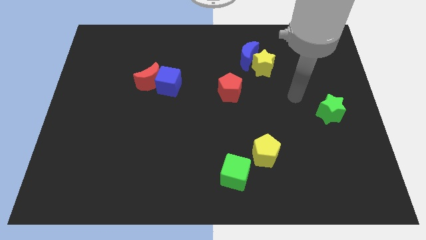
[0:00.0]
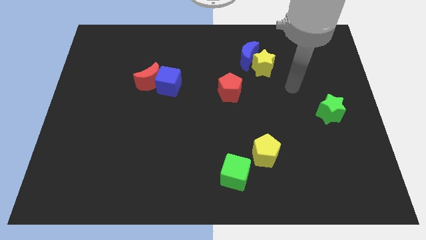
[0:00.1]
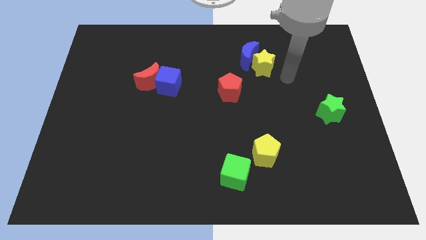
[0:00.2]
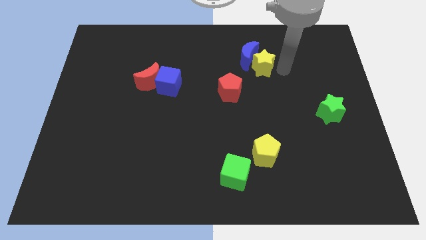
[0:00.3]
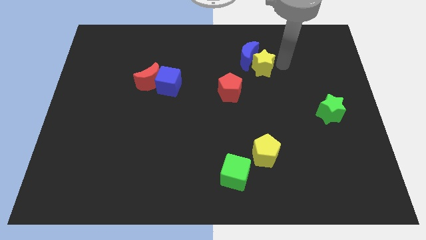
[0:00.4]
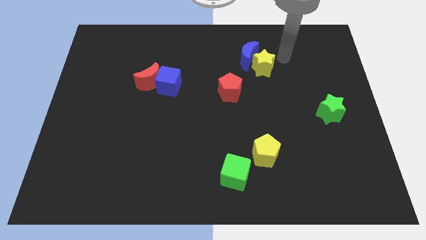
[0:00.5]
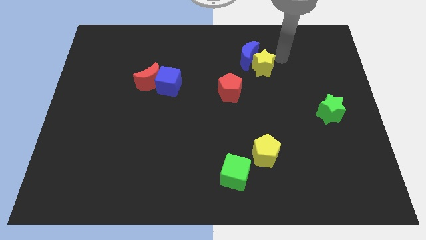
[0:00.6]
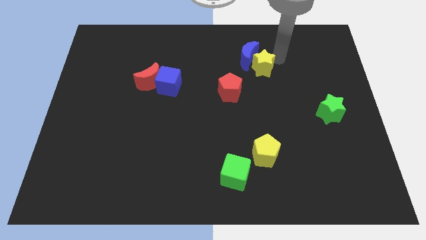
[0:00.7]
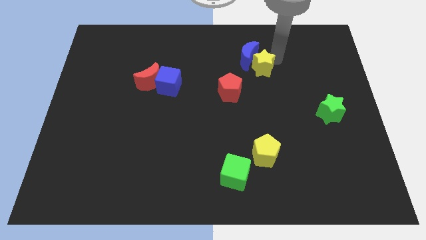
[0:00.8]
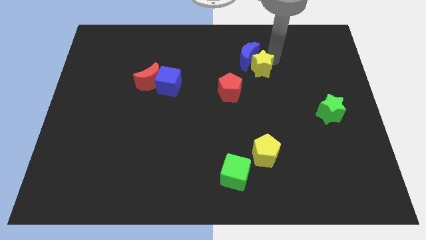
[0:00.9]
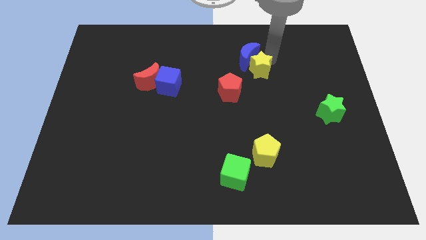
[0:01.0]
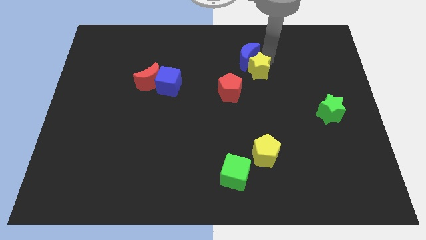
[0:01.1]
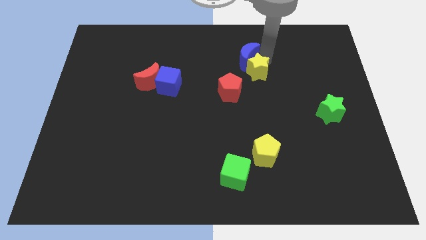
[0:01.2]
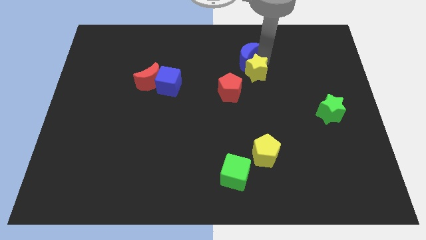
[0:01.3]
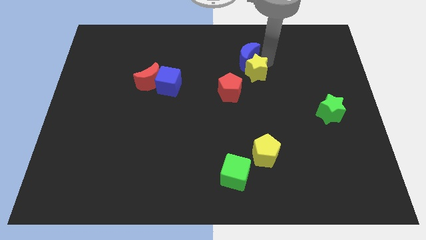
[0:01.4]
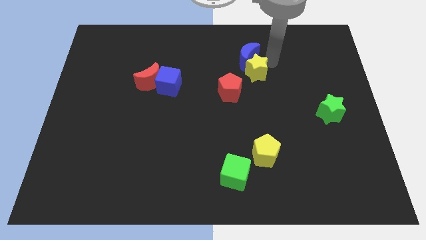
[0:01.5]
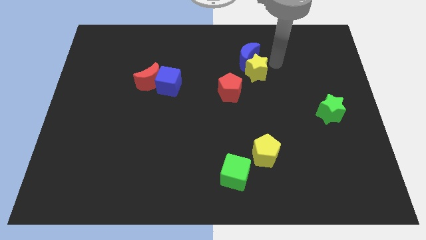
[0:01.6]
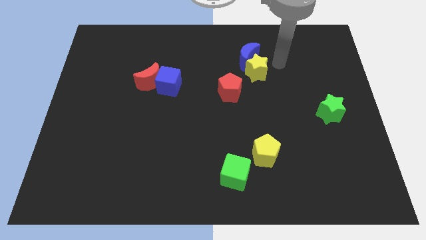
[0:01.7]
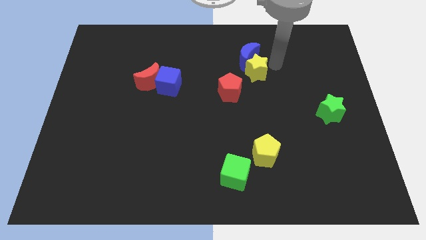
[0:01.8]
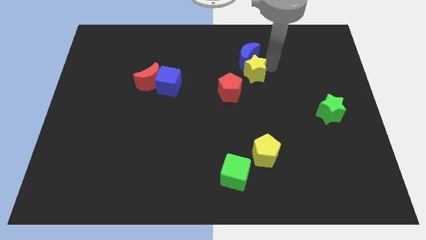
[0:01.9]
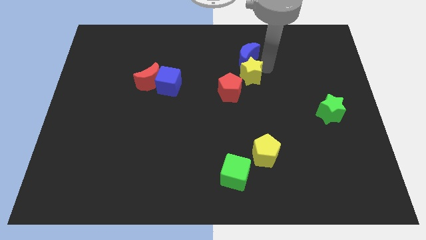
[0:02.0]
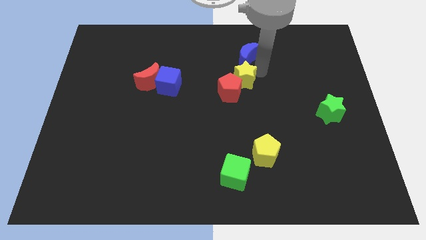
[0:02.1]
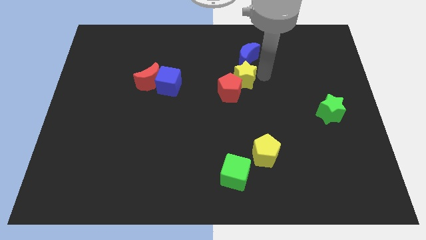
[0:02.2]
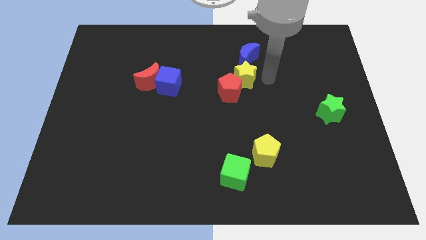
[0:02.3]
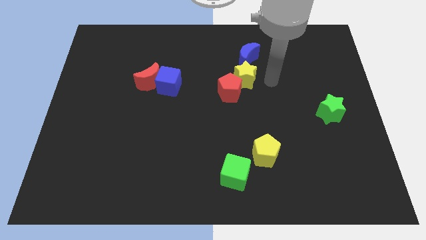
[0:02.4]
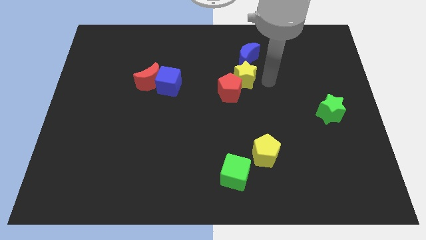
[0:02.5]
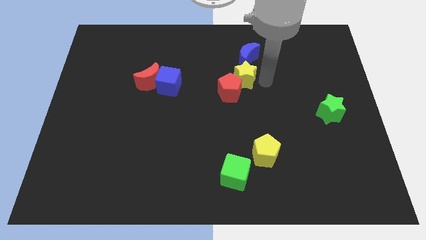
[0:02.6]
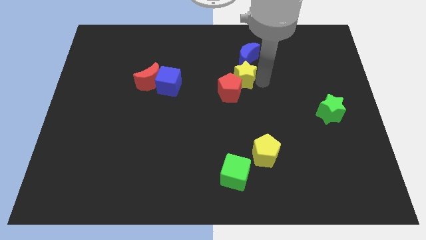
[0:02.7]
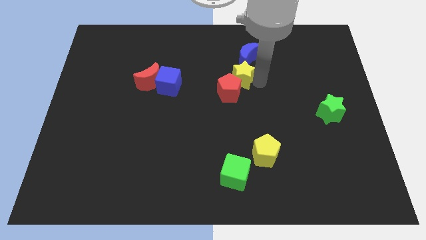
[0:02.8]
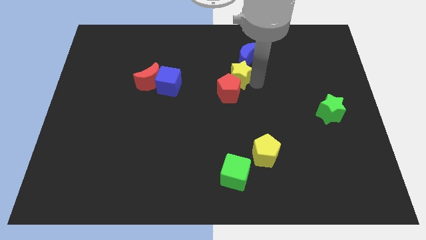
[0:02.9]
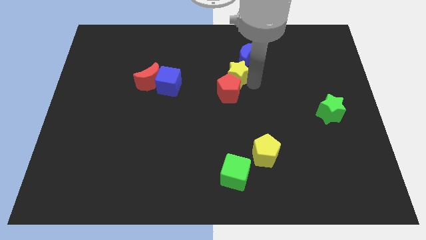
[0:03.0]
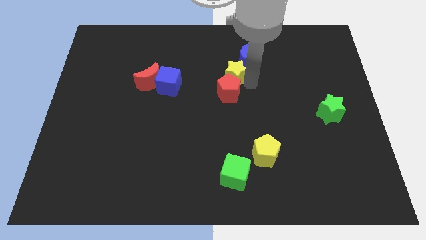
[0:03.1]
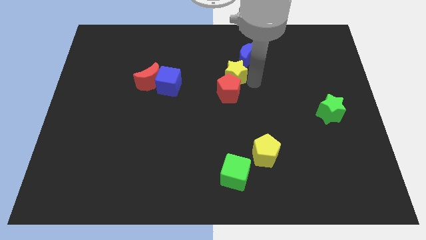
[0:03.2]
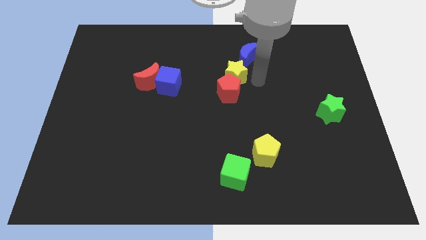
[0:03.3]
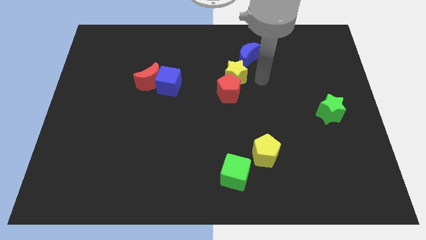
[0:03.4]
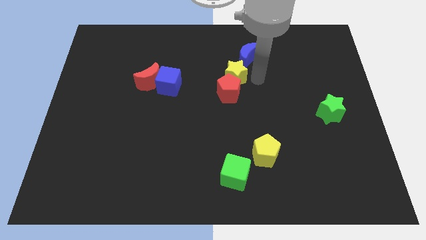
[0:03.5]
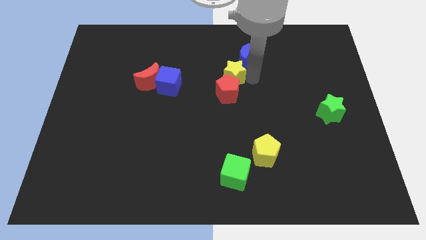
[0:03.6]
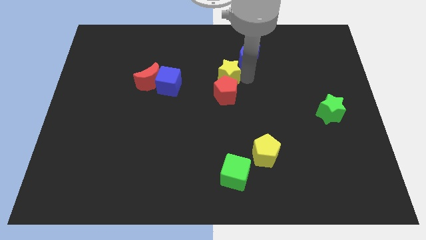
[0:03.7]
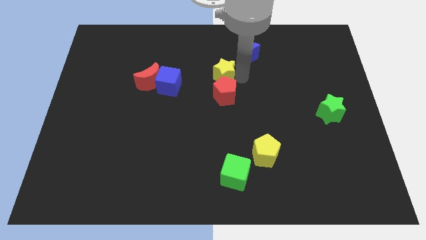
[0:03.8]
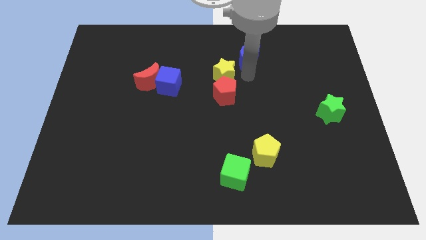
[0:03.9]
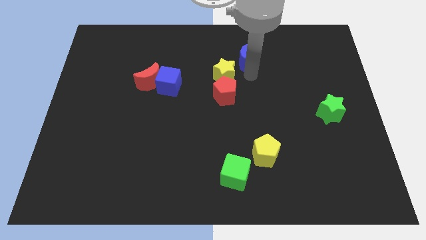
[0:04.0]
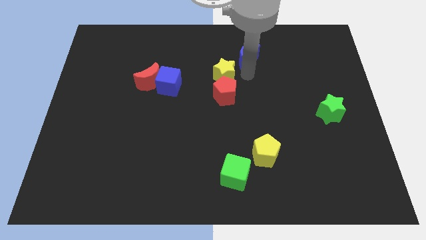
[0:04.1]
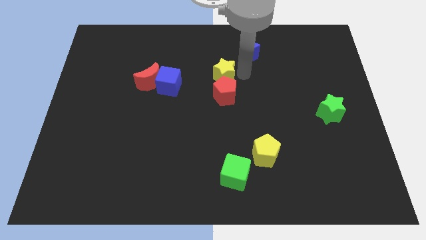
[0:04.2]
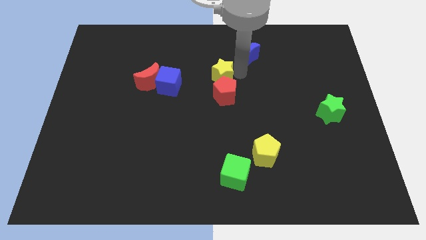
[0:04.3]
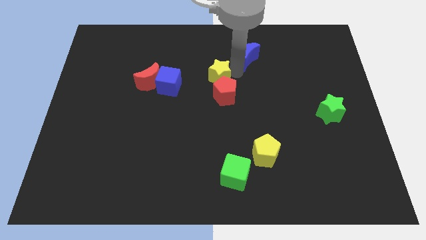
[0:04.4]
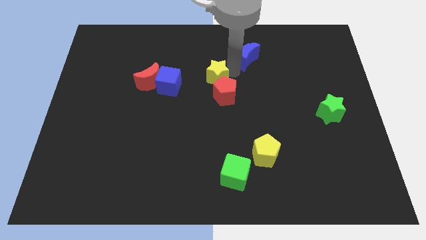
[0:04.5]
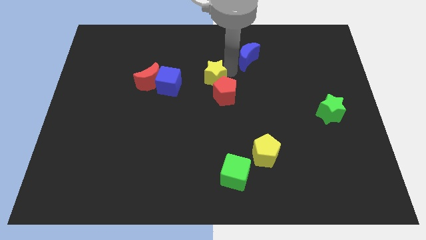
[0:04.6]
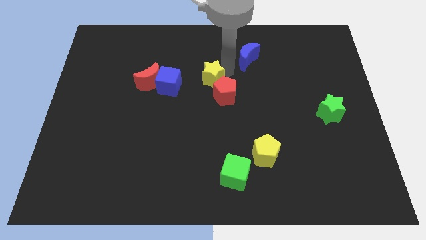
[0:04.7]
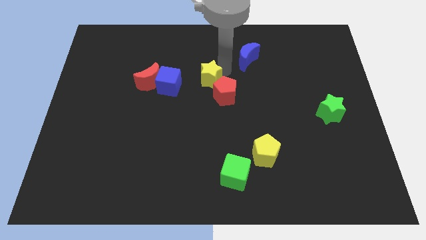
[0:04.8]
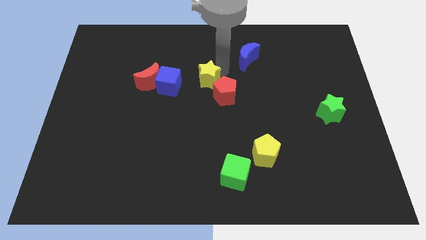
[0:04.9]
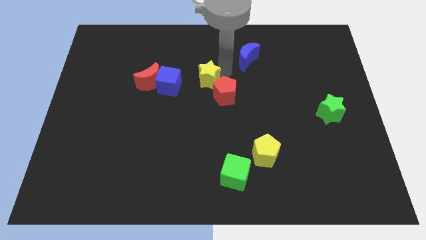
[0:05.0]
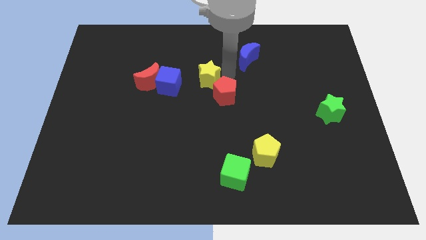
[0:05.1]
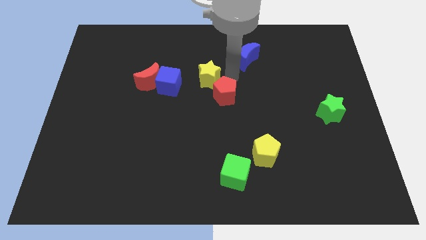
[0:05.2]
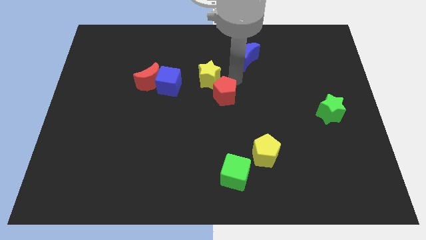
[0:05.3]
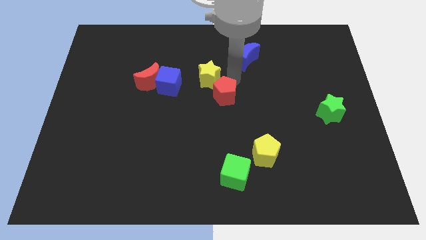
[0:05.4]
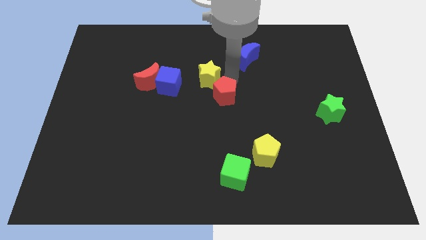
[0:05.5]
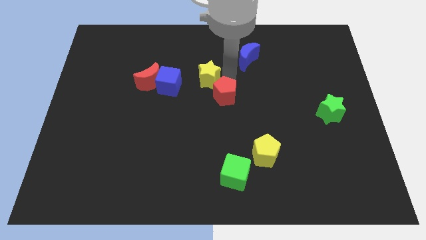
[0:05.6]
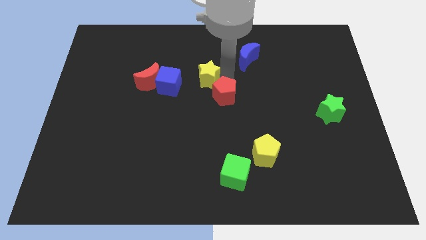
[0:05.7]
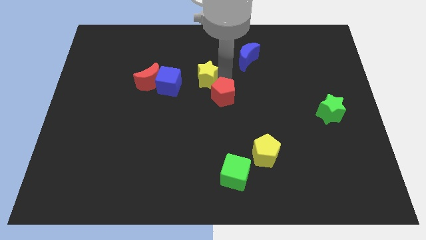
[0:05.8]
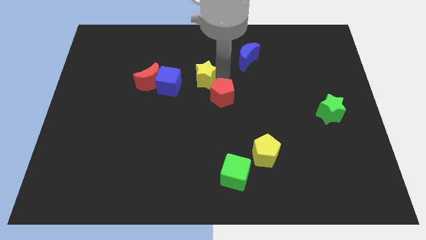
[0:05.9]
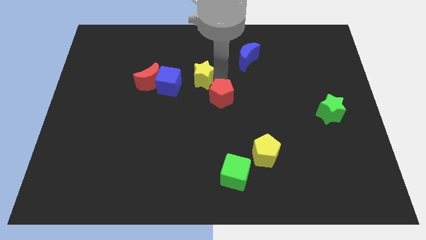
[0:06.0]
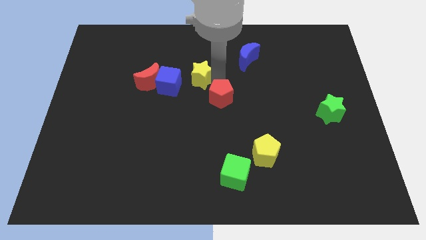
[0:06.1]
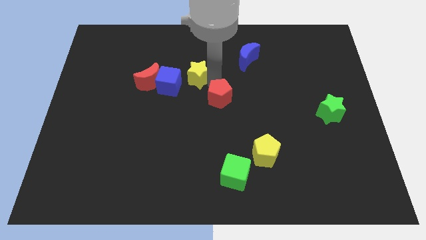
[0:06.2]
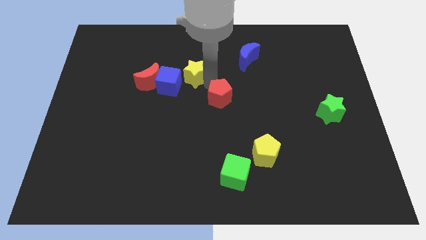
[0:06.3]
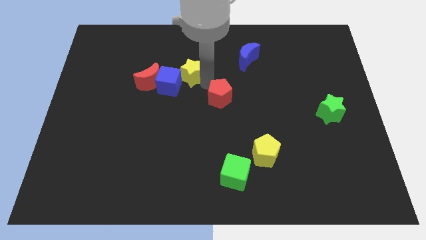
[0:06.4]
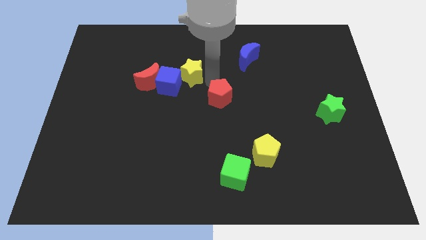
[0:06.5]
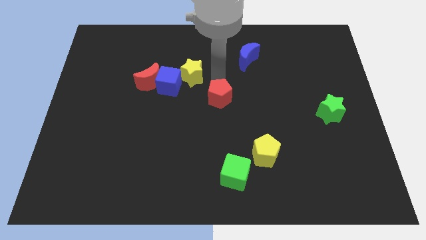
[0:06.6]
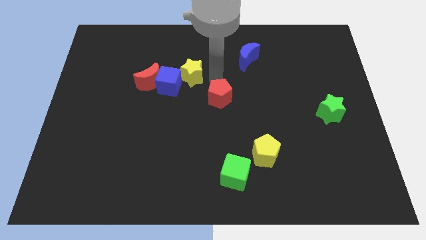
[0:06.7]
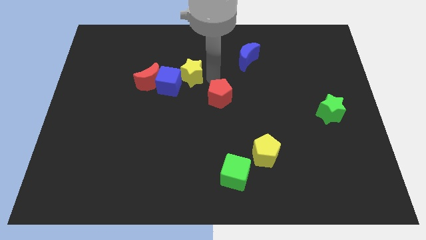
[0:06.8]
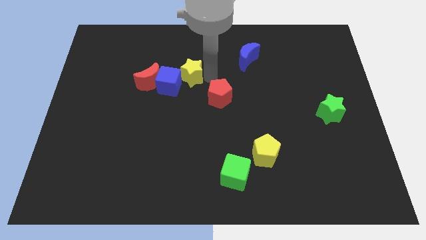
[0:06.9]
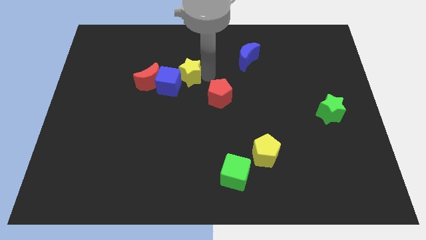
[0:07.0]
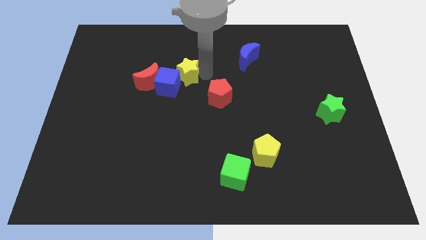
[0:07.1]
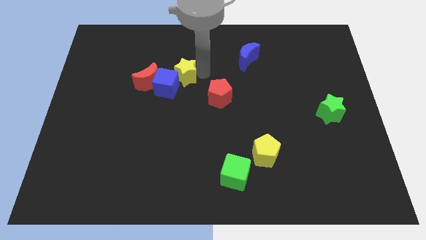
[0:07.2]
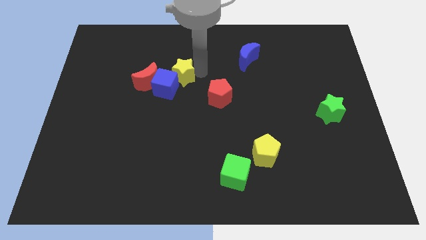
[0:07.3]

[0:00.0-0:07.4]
slide the yellow star to the left

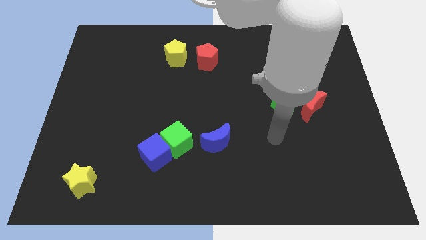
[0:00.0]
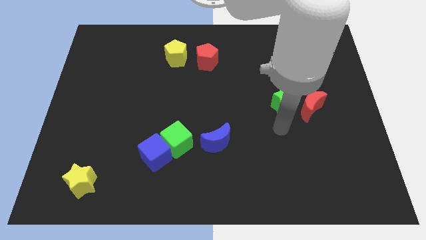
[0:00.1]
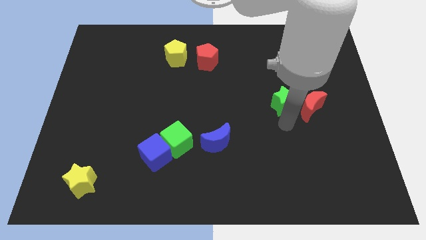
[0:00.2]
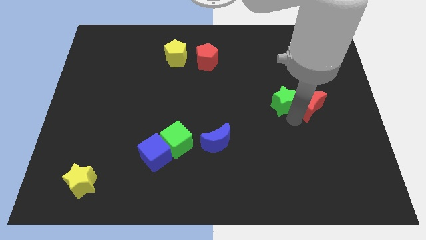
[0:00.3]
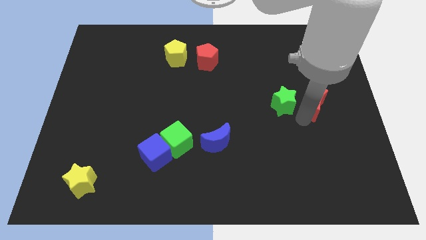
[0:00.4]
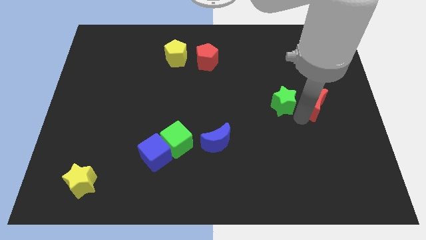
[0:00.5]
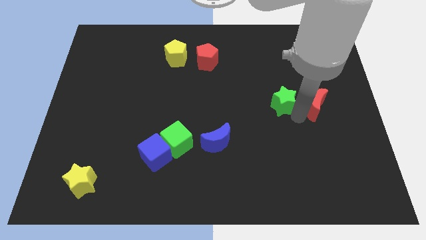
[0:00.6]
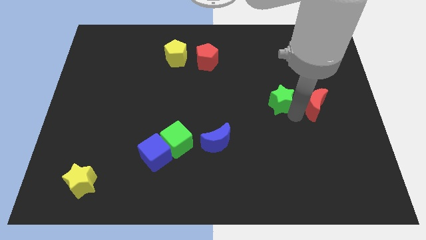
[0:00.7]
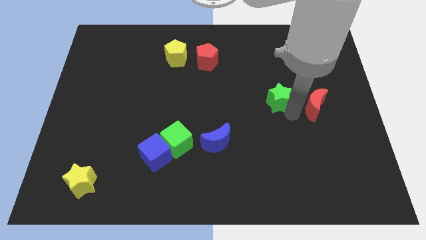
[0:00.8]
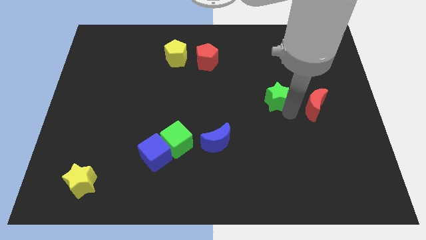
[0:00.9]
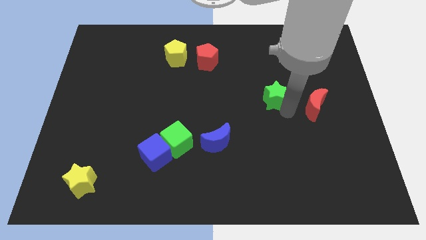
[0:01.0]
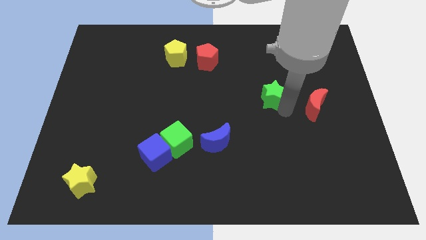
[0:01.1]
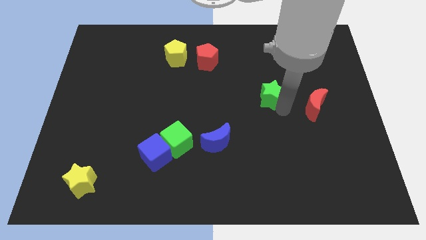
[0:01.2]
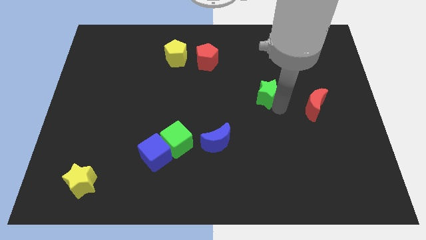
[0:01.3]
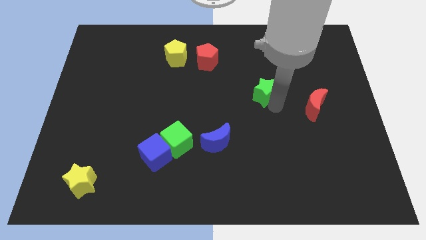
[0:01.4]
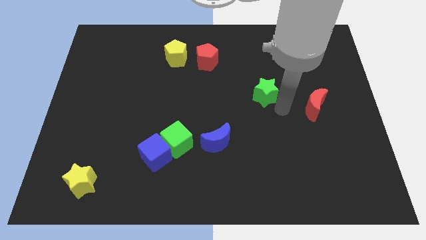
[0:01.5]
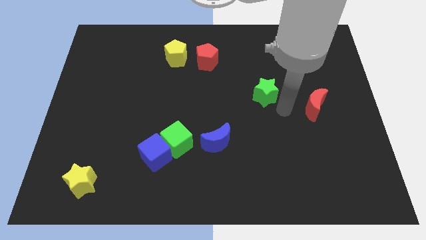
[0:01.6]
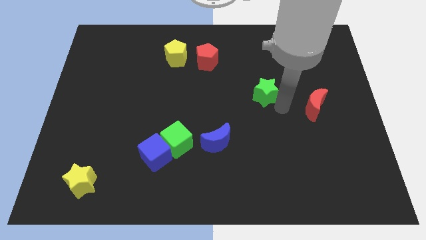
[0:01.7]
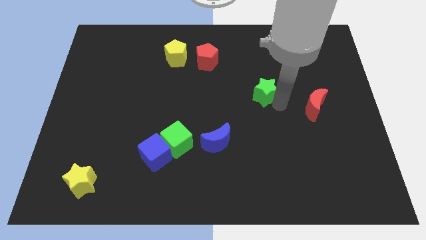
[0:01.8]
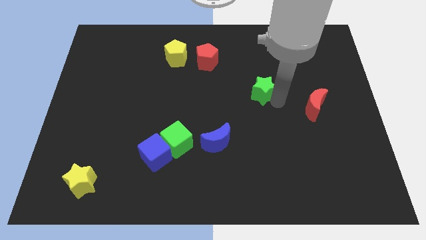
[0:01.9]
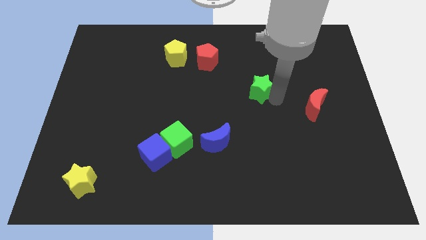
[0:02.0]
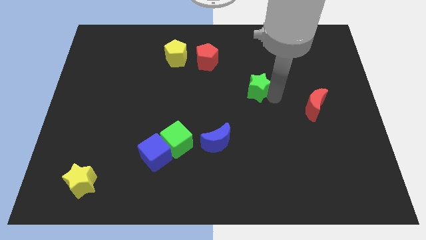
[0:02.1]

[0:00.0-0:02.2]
push the green star upwards and to the left diagonally somewhat
